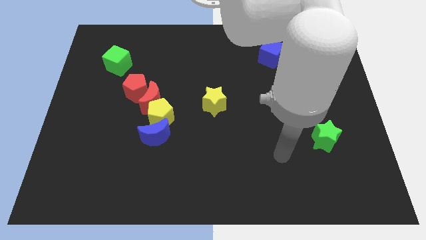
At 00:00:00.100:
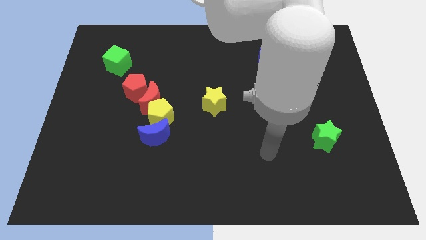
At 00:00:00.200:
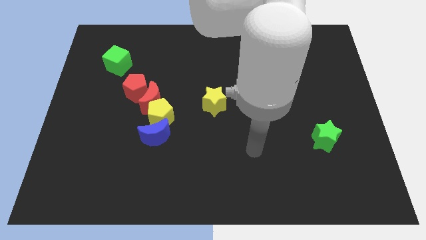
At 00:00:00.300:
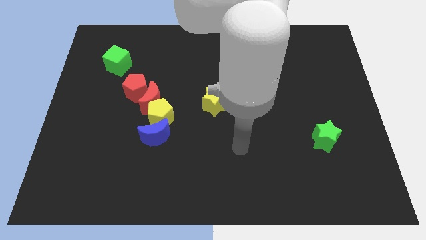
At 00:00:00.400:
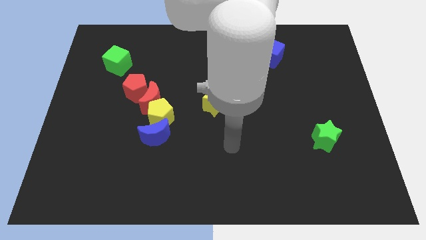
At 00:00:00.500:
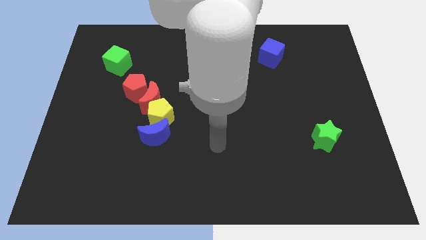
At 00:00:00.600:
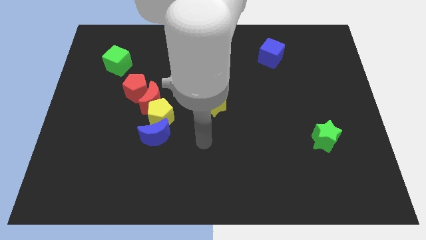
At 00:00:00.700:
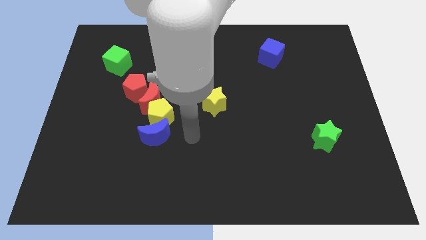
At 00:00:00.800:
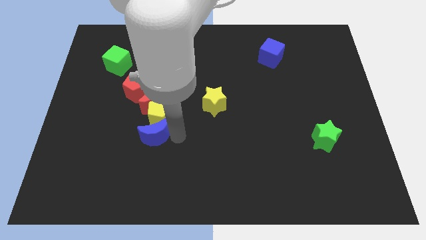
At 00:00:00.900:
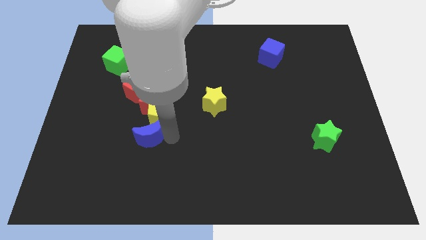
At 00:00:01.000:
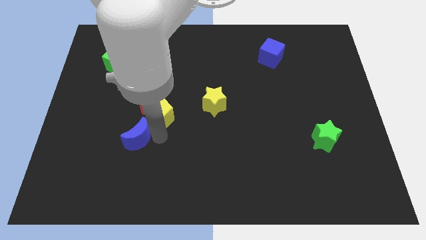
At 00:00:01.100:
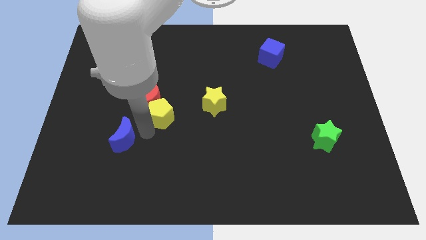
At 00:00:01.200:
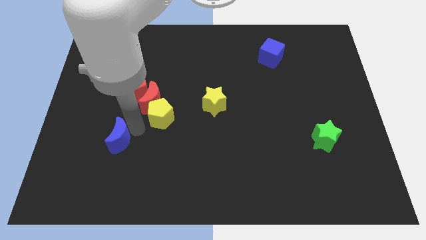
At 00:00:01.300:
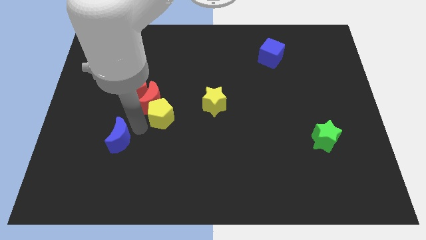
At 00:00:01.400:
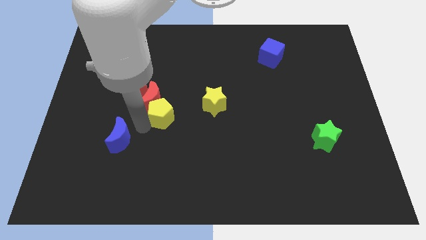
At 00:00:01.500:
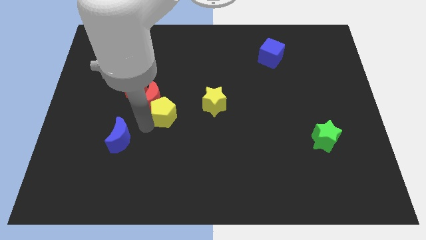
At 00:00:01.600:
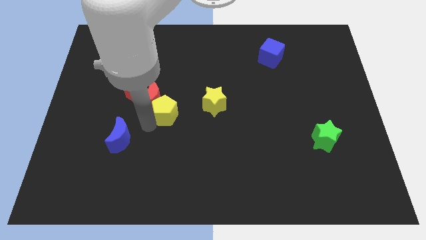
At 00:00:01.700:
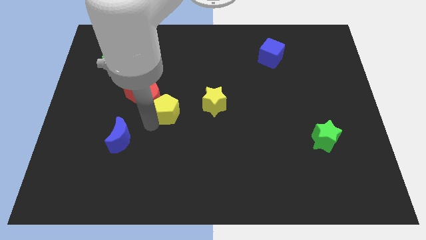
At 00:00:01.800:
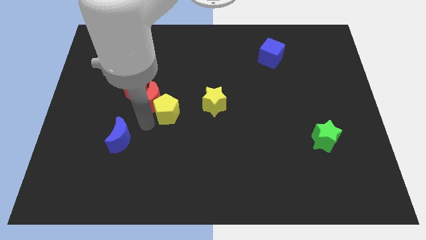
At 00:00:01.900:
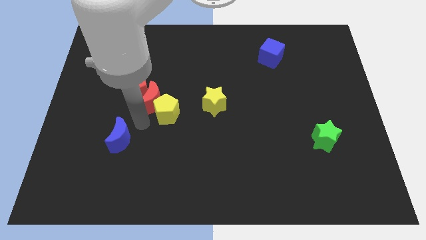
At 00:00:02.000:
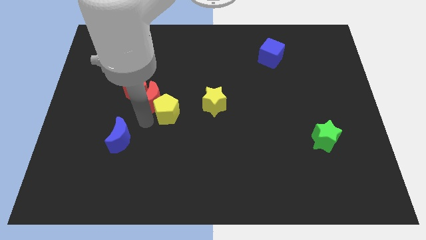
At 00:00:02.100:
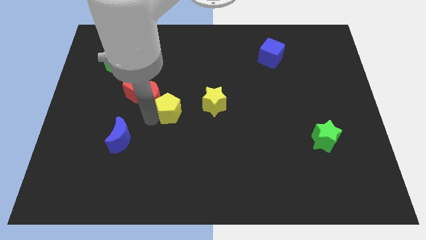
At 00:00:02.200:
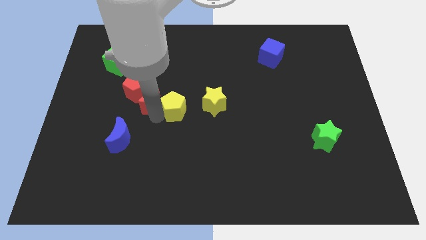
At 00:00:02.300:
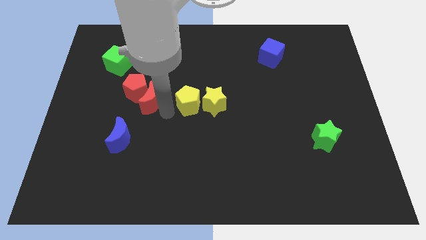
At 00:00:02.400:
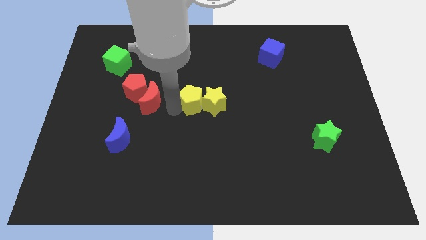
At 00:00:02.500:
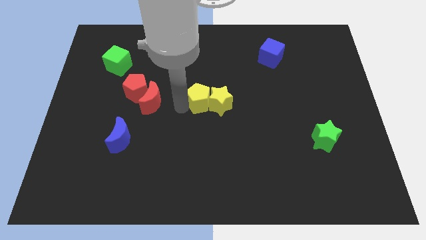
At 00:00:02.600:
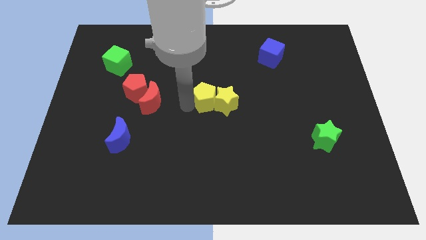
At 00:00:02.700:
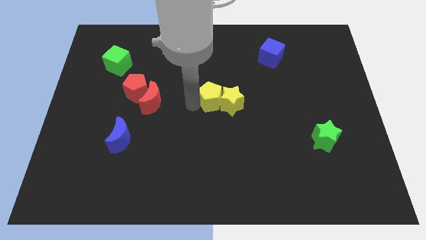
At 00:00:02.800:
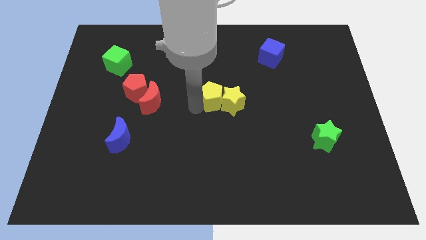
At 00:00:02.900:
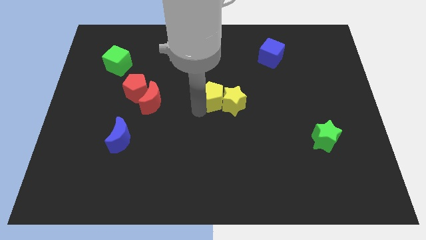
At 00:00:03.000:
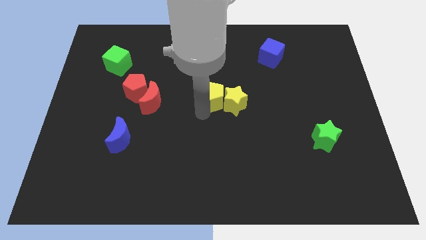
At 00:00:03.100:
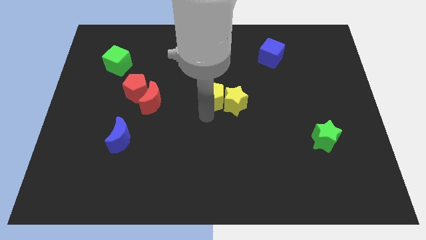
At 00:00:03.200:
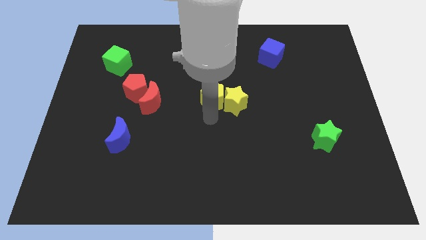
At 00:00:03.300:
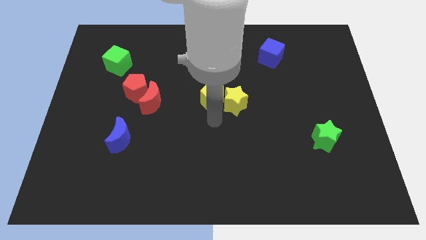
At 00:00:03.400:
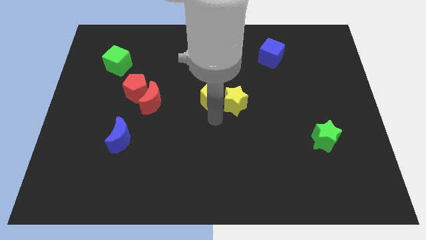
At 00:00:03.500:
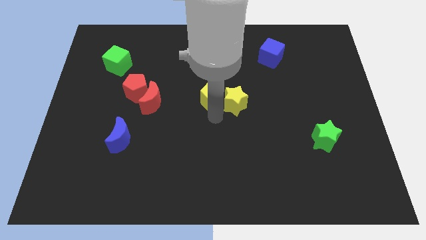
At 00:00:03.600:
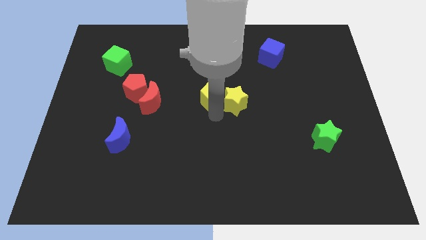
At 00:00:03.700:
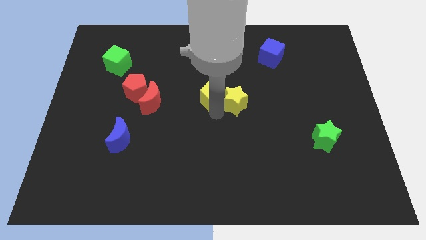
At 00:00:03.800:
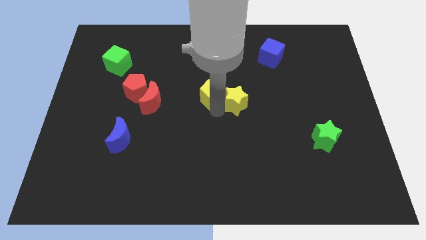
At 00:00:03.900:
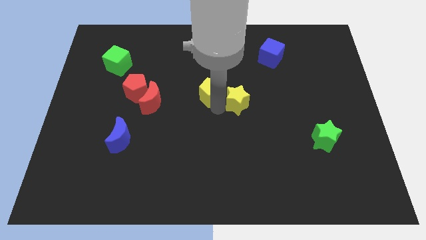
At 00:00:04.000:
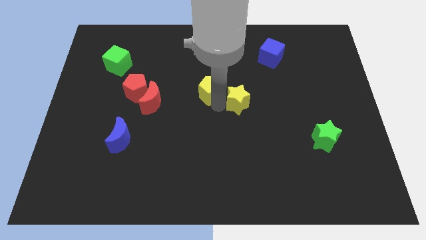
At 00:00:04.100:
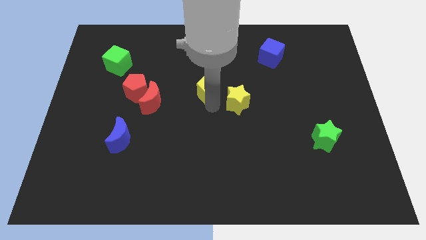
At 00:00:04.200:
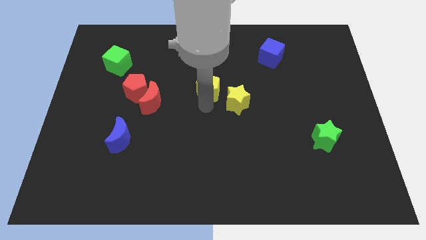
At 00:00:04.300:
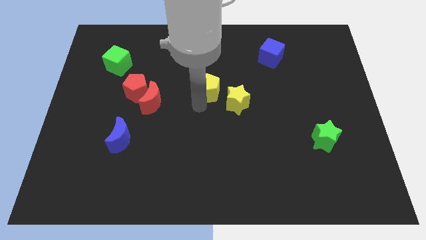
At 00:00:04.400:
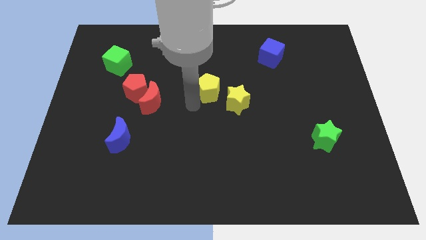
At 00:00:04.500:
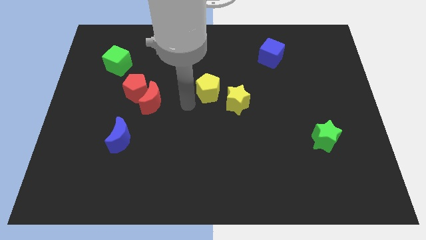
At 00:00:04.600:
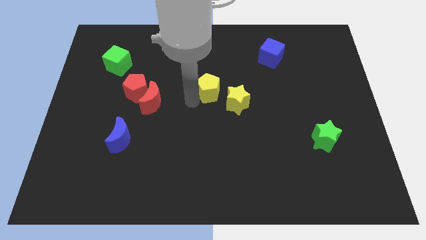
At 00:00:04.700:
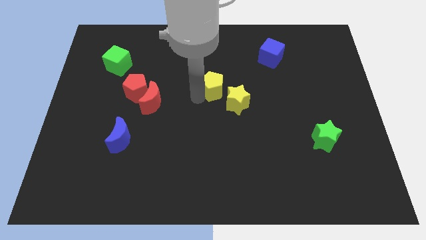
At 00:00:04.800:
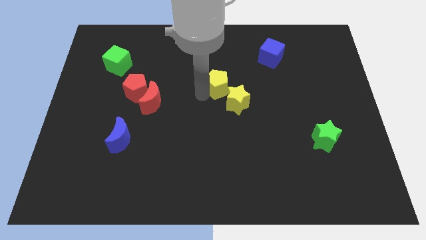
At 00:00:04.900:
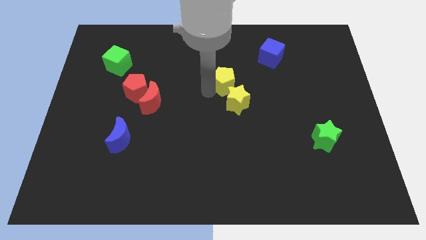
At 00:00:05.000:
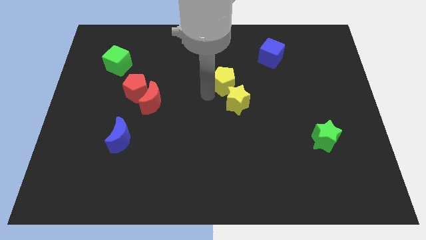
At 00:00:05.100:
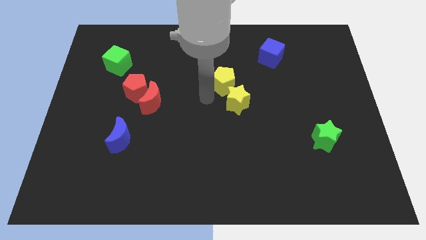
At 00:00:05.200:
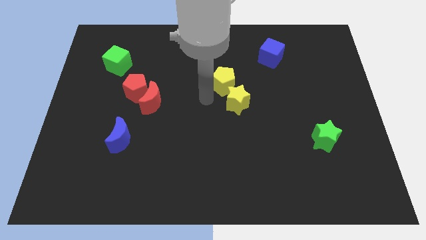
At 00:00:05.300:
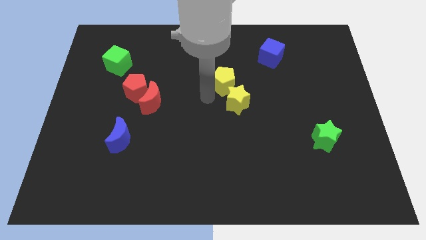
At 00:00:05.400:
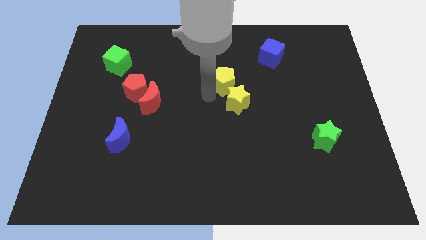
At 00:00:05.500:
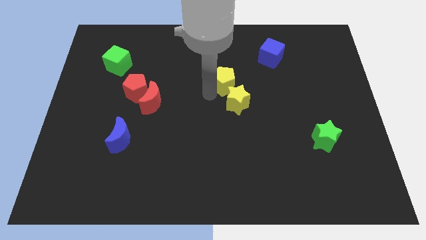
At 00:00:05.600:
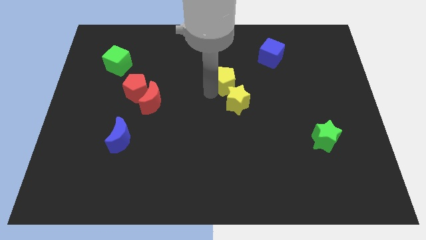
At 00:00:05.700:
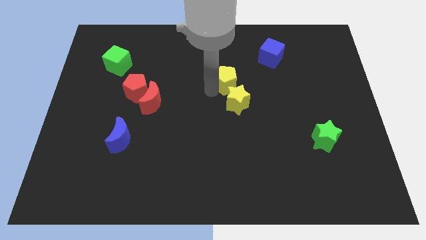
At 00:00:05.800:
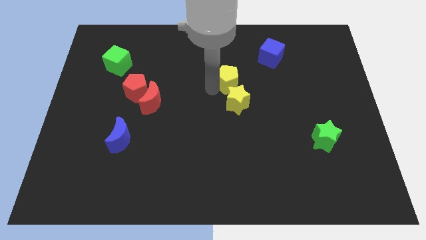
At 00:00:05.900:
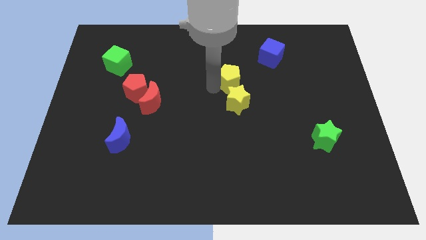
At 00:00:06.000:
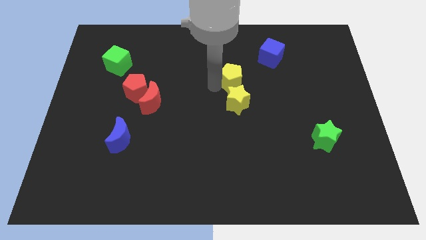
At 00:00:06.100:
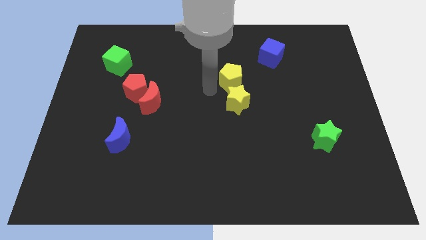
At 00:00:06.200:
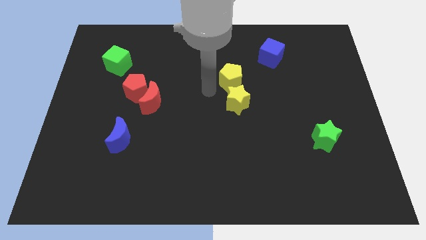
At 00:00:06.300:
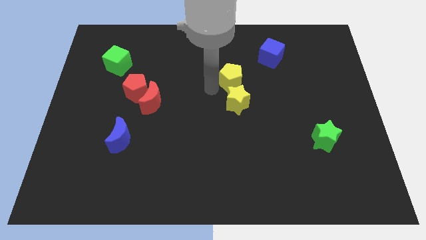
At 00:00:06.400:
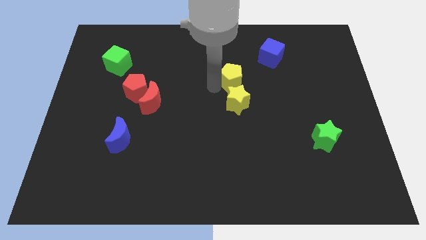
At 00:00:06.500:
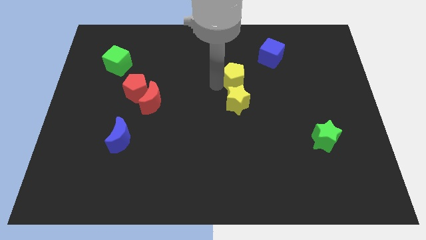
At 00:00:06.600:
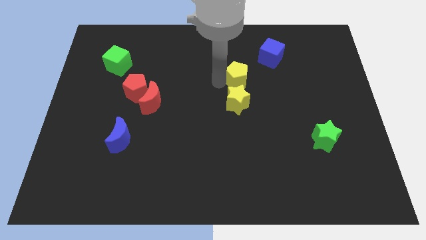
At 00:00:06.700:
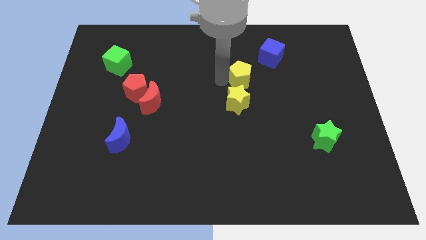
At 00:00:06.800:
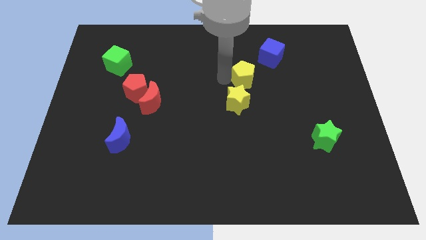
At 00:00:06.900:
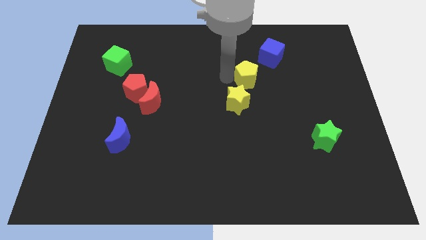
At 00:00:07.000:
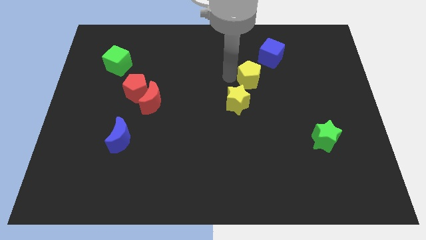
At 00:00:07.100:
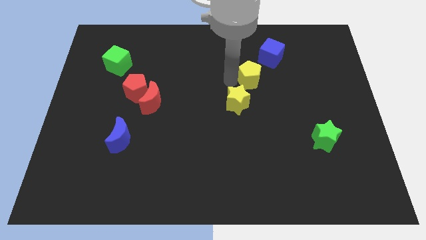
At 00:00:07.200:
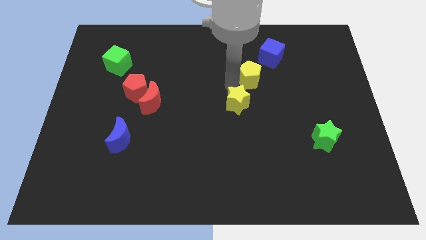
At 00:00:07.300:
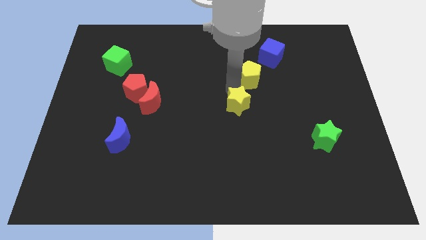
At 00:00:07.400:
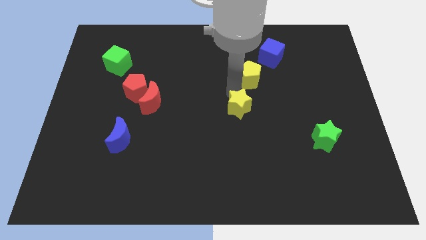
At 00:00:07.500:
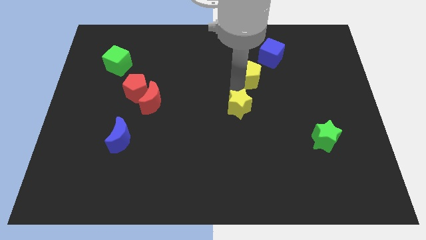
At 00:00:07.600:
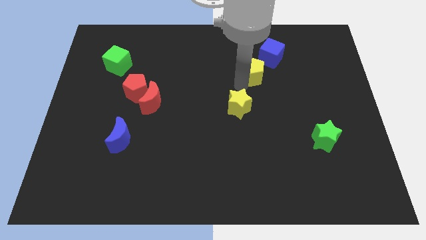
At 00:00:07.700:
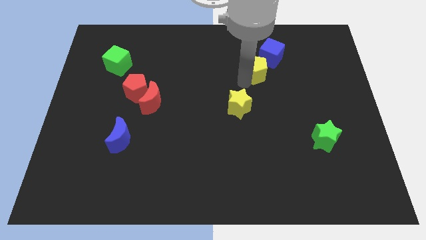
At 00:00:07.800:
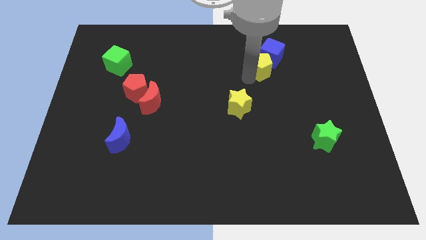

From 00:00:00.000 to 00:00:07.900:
push the yellow pentagon close to the blue cube
